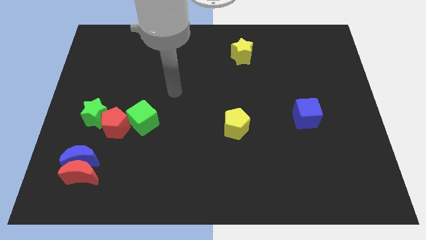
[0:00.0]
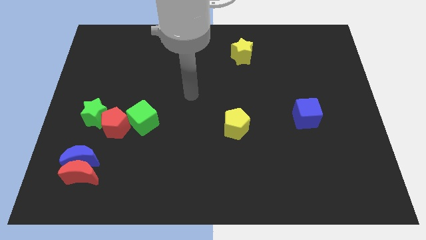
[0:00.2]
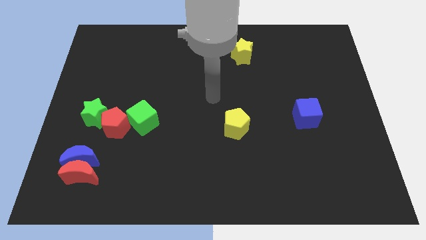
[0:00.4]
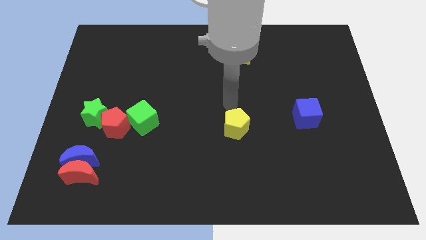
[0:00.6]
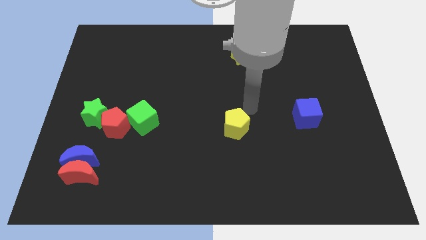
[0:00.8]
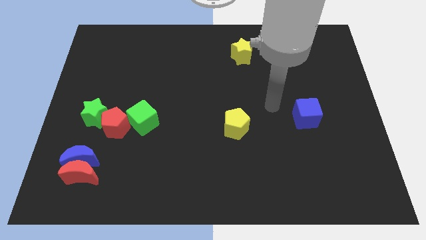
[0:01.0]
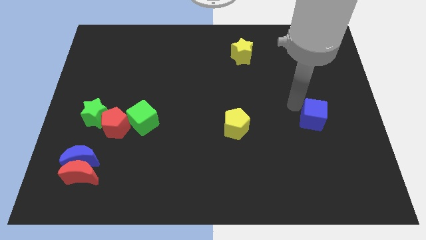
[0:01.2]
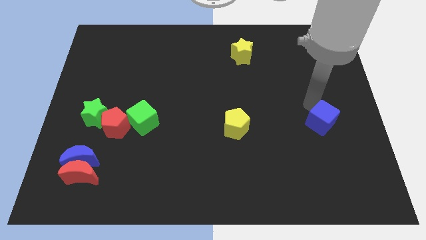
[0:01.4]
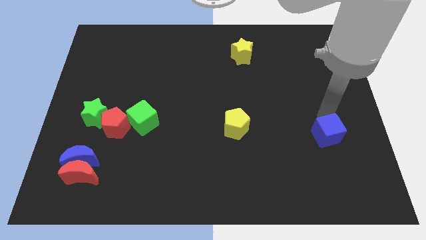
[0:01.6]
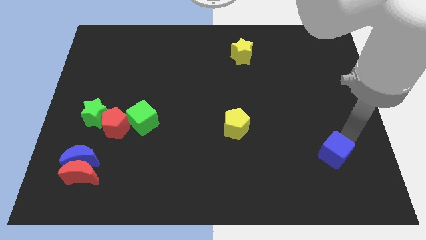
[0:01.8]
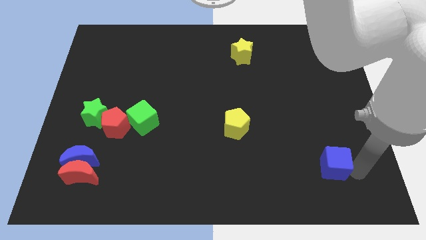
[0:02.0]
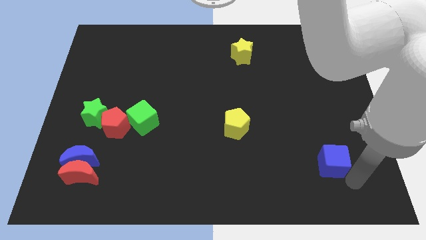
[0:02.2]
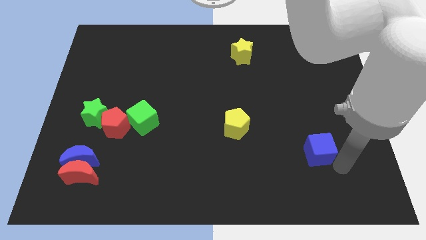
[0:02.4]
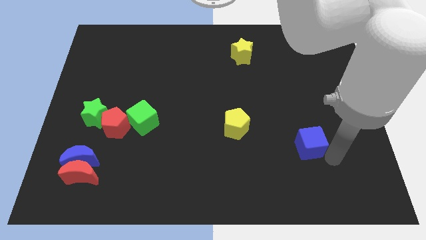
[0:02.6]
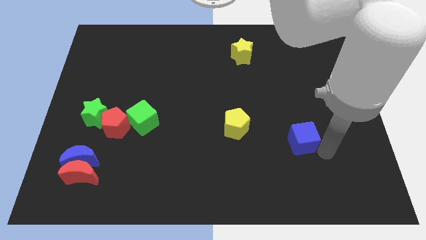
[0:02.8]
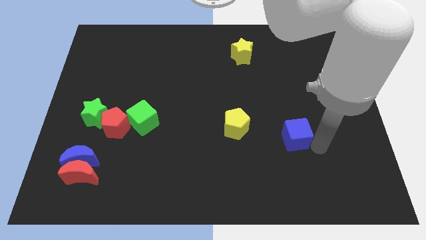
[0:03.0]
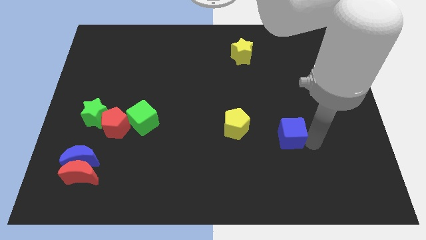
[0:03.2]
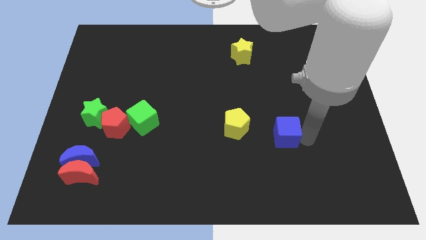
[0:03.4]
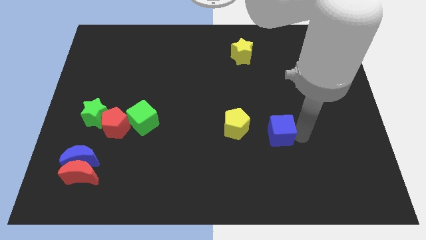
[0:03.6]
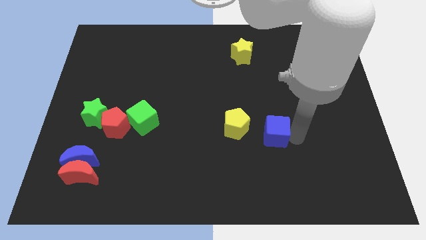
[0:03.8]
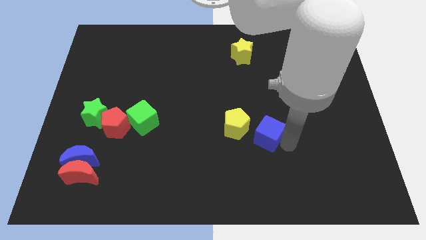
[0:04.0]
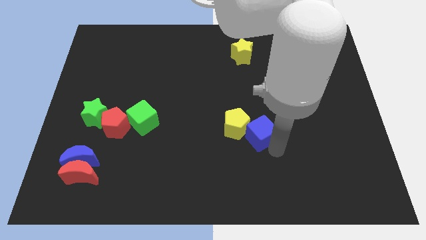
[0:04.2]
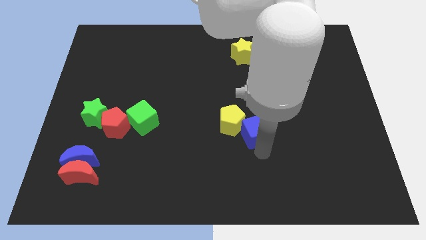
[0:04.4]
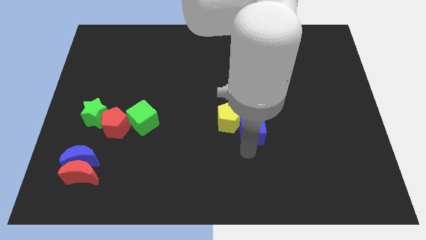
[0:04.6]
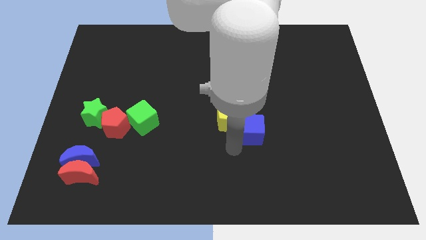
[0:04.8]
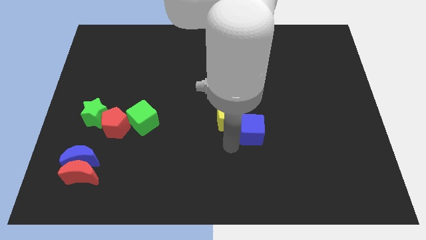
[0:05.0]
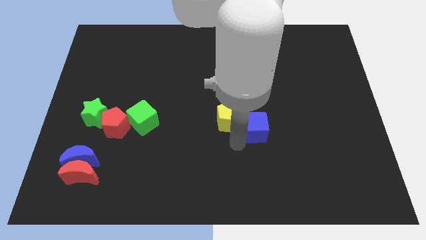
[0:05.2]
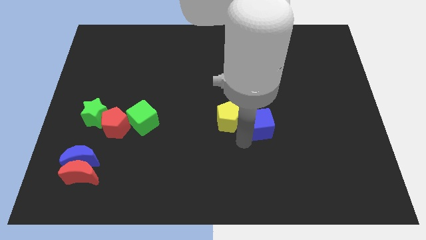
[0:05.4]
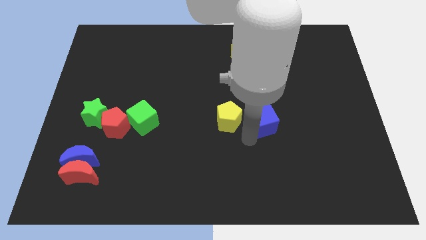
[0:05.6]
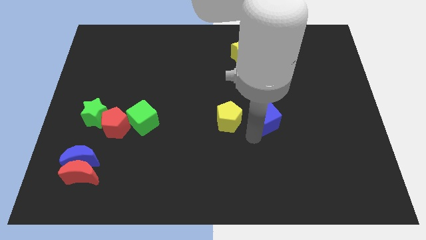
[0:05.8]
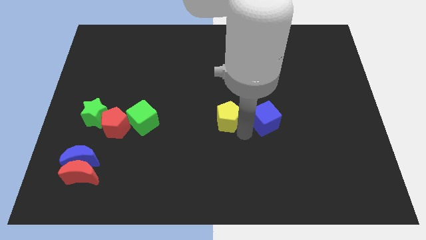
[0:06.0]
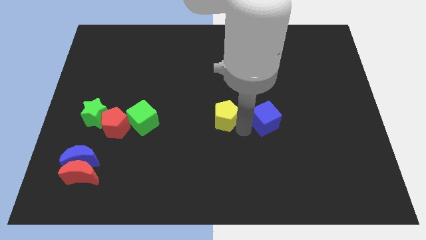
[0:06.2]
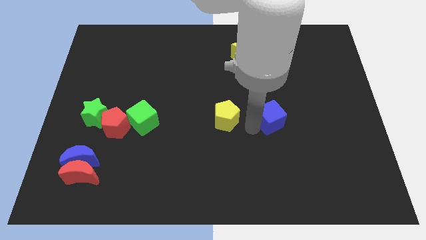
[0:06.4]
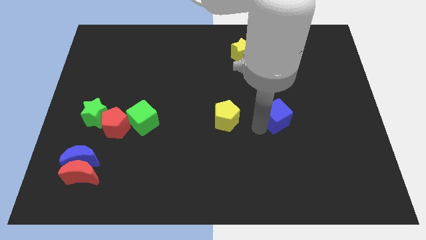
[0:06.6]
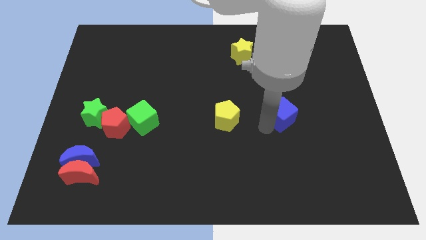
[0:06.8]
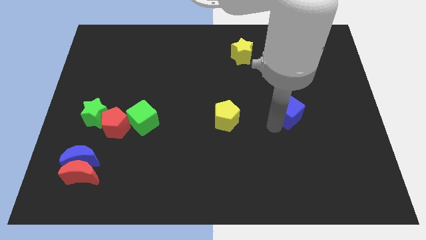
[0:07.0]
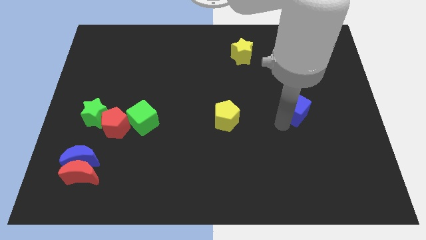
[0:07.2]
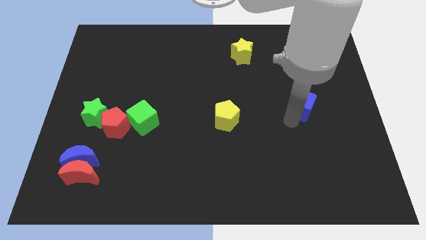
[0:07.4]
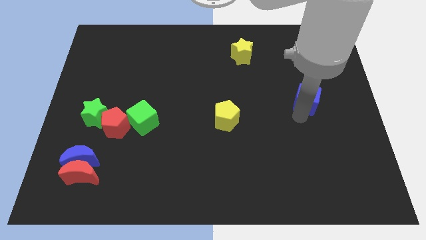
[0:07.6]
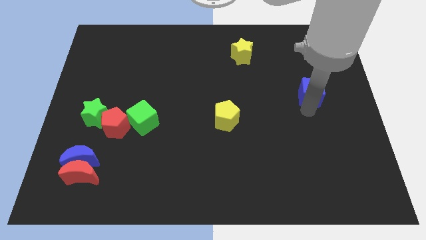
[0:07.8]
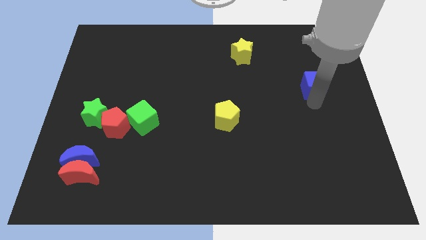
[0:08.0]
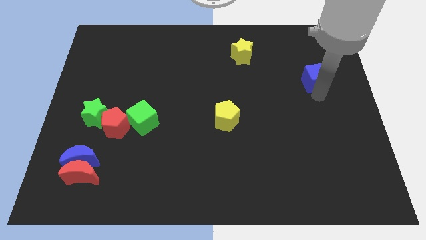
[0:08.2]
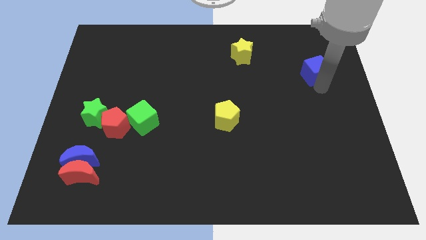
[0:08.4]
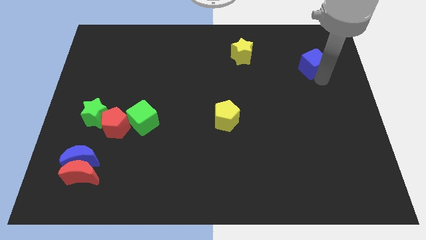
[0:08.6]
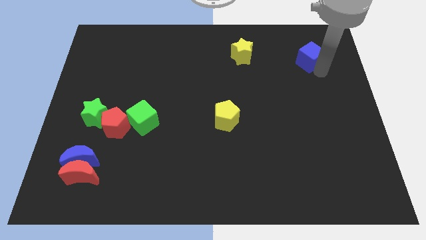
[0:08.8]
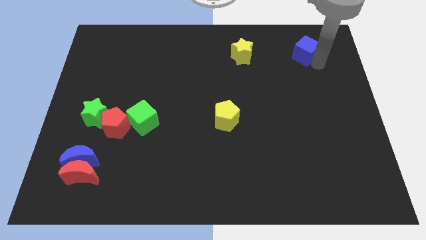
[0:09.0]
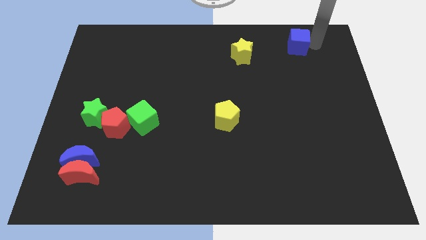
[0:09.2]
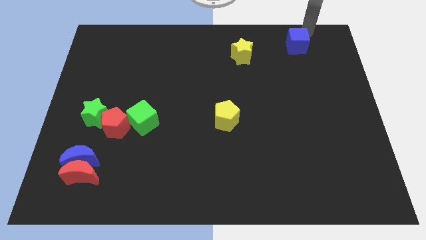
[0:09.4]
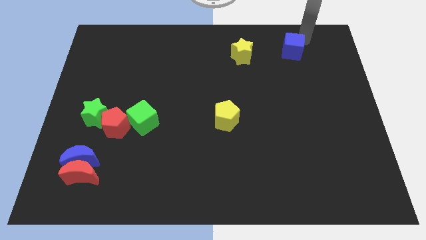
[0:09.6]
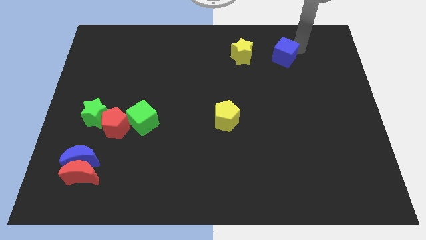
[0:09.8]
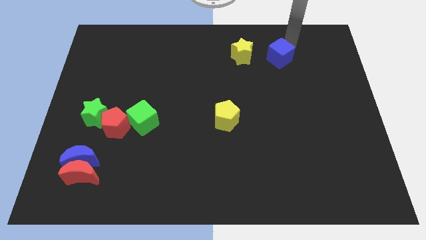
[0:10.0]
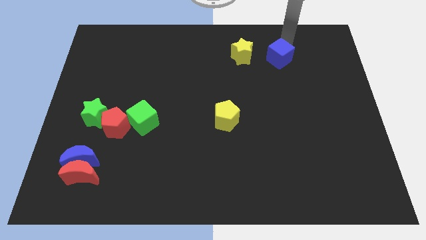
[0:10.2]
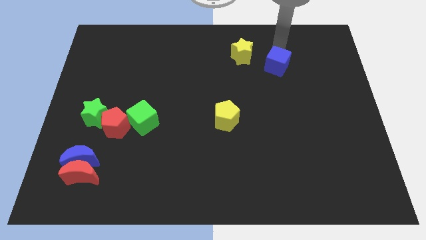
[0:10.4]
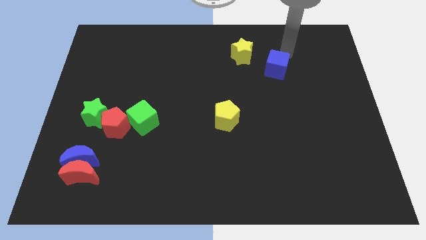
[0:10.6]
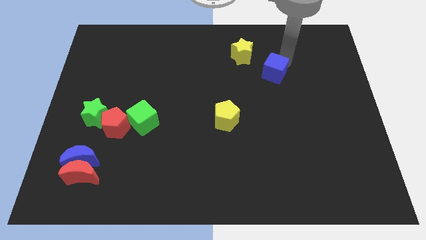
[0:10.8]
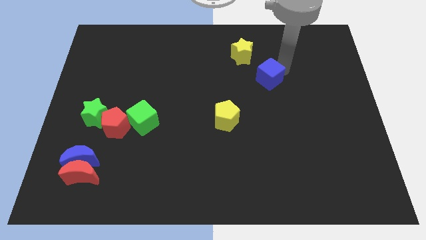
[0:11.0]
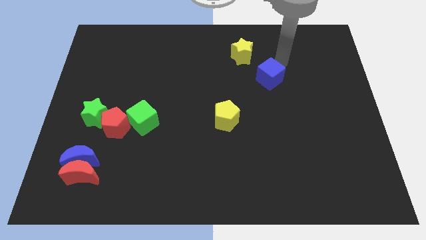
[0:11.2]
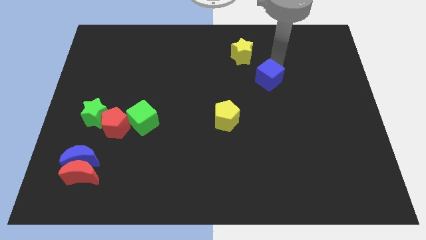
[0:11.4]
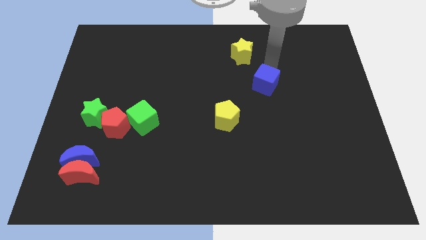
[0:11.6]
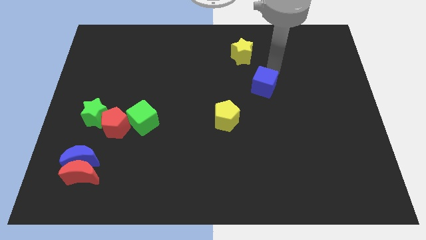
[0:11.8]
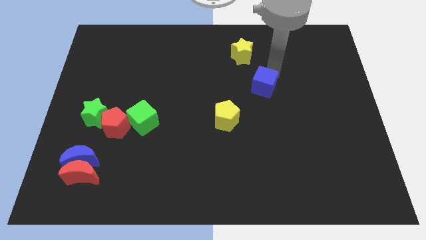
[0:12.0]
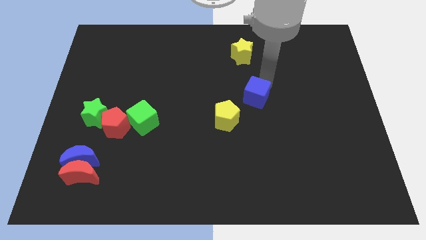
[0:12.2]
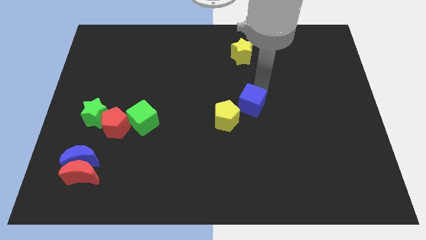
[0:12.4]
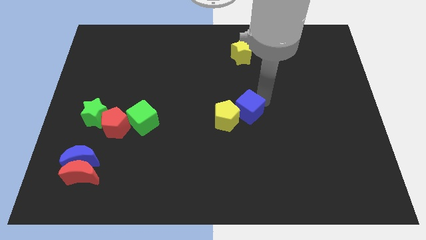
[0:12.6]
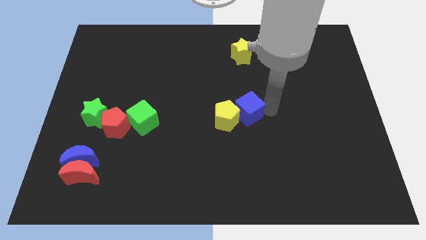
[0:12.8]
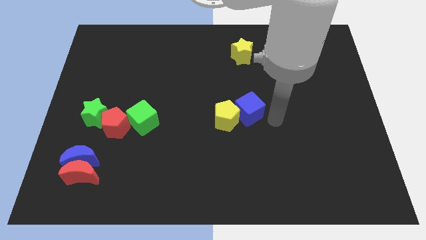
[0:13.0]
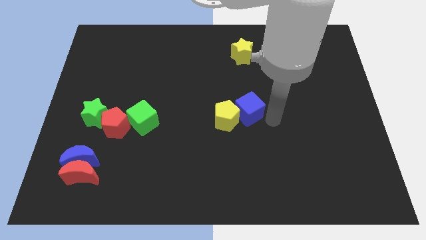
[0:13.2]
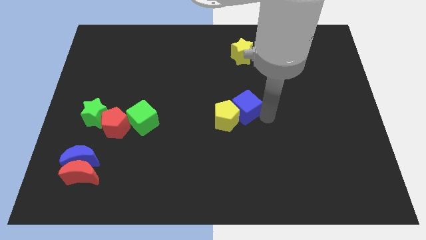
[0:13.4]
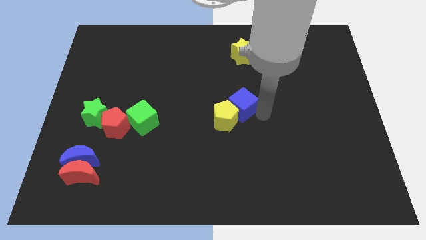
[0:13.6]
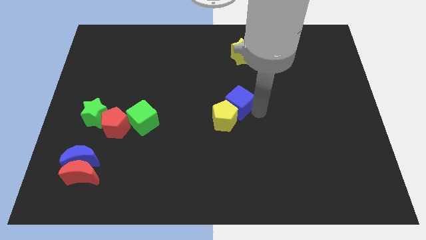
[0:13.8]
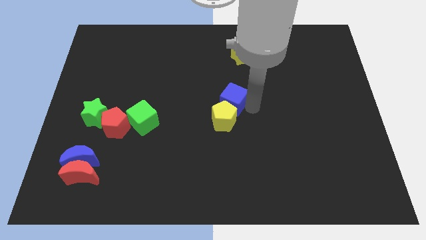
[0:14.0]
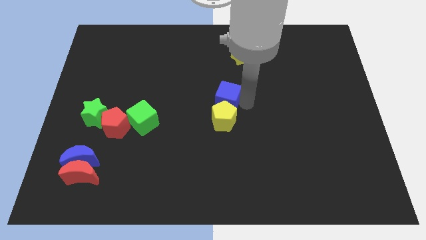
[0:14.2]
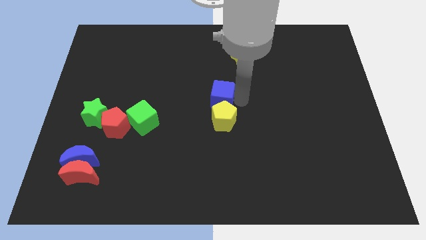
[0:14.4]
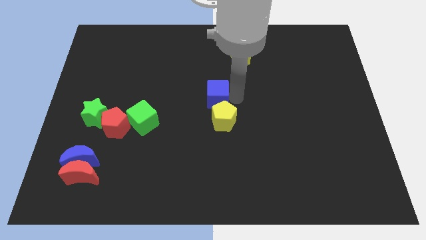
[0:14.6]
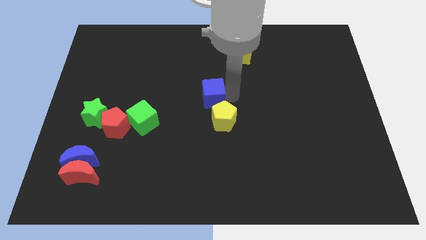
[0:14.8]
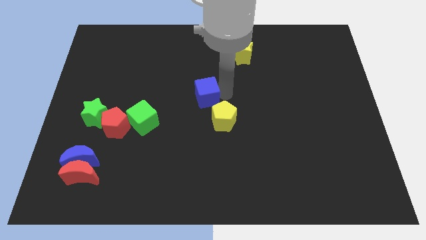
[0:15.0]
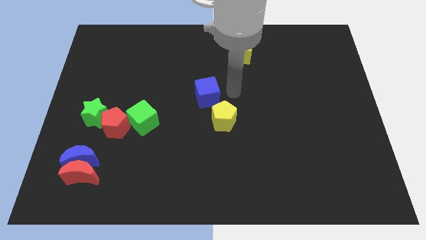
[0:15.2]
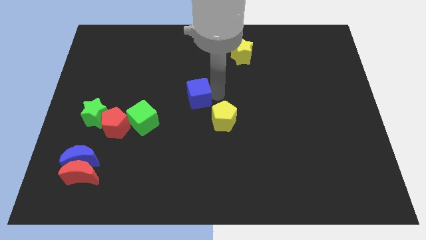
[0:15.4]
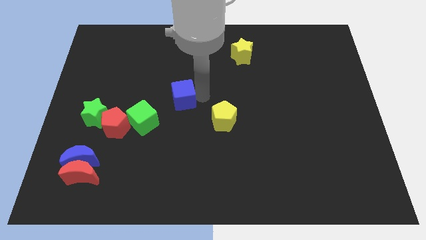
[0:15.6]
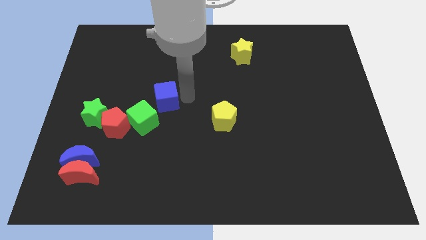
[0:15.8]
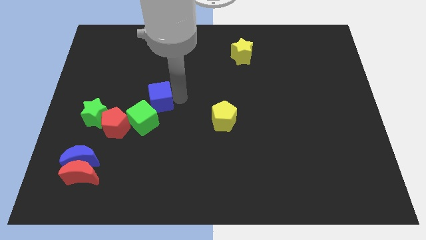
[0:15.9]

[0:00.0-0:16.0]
slide the blue cube to the top right of the red pentagon

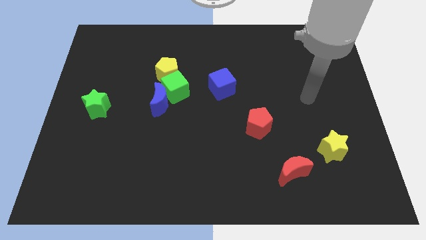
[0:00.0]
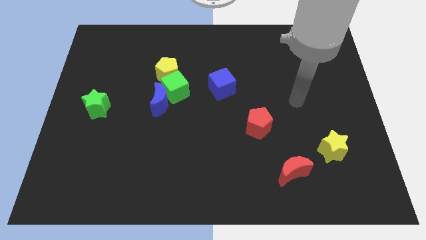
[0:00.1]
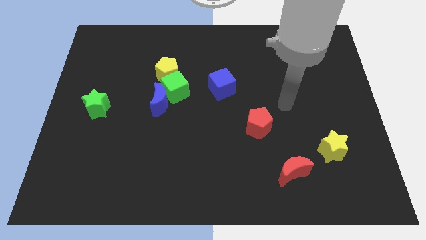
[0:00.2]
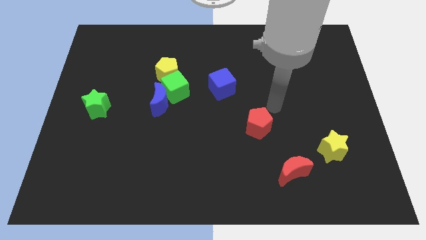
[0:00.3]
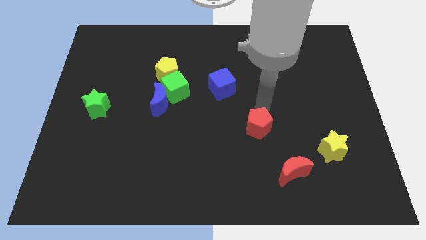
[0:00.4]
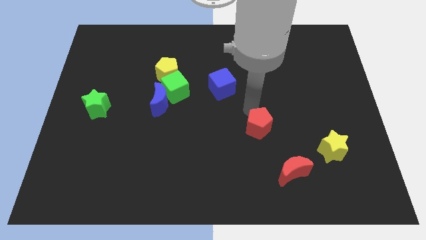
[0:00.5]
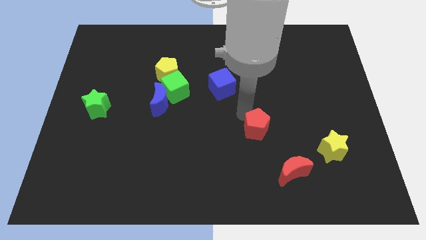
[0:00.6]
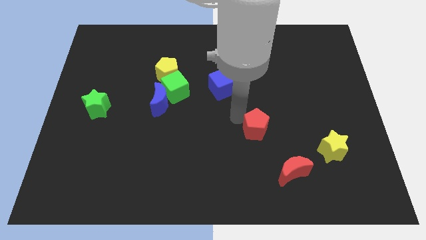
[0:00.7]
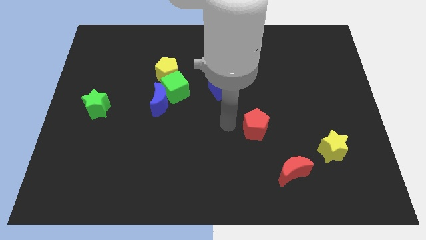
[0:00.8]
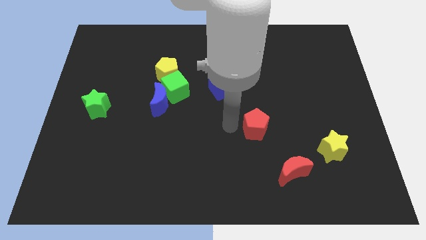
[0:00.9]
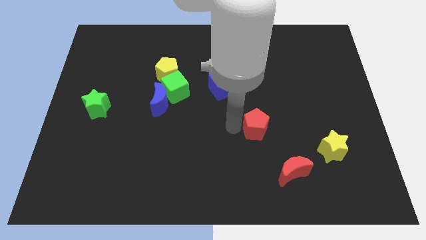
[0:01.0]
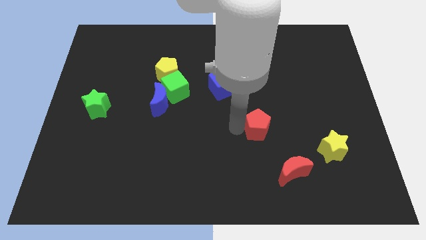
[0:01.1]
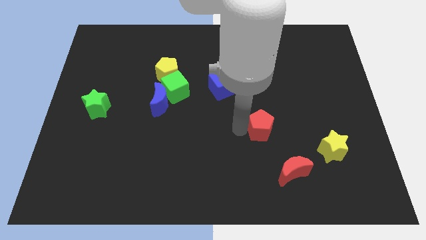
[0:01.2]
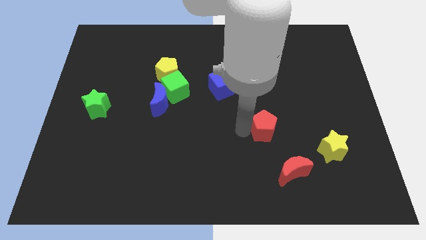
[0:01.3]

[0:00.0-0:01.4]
put the red pentagon to the top of the red moon
